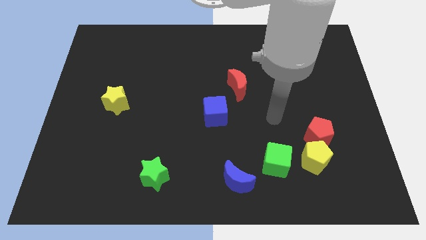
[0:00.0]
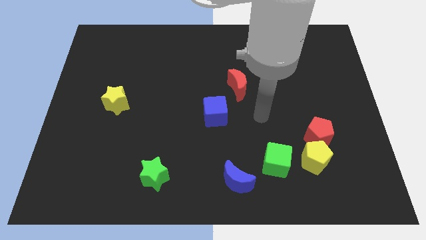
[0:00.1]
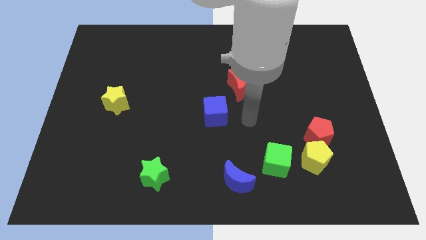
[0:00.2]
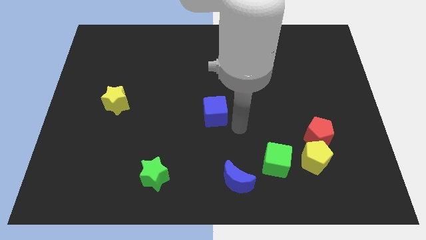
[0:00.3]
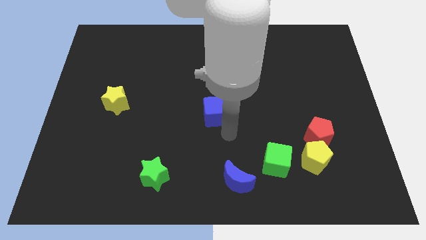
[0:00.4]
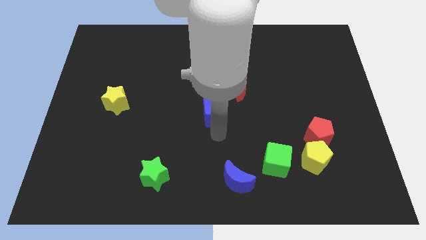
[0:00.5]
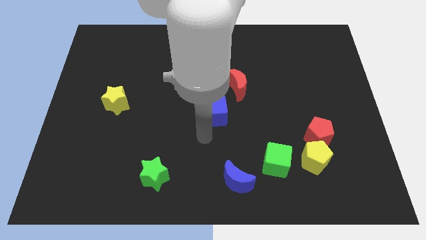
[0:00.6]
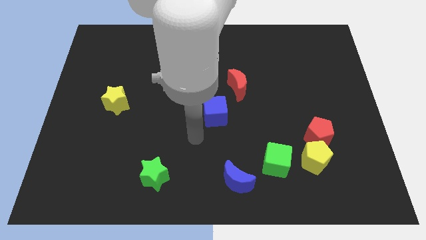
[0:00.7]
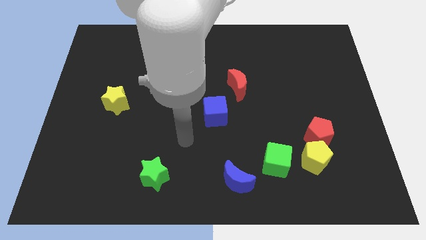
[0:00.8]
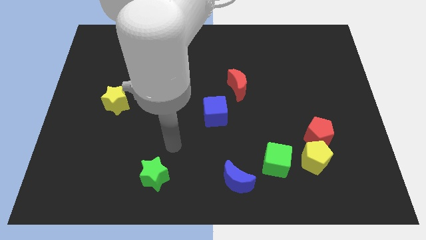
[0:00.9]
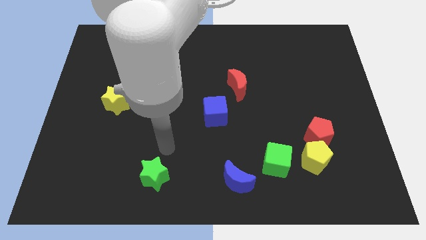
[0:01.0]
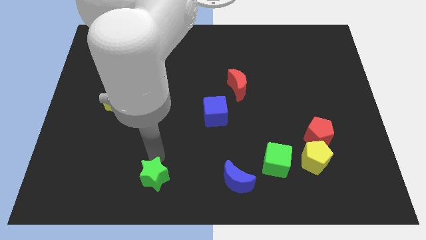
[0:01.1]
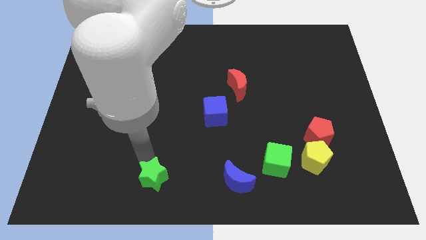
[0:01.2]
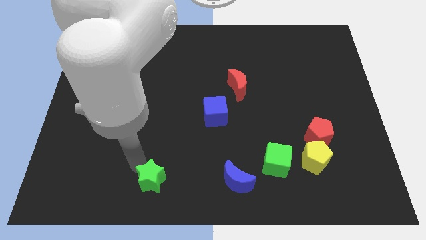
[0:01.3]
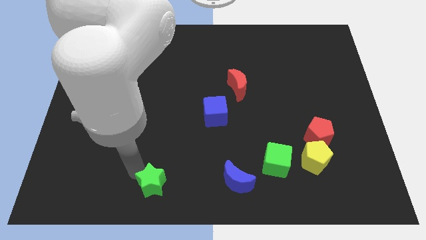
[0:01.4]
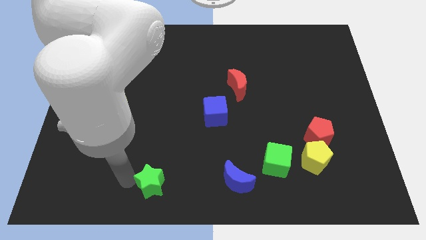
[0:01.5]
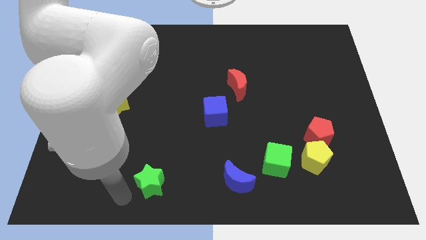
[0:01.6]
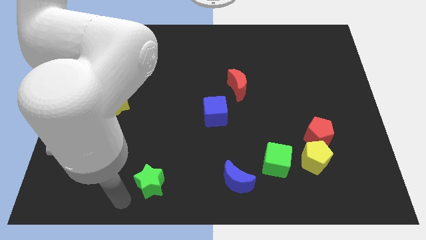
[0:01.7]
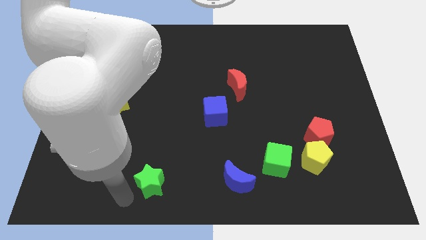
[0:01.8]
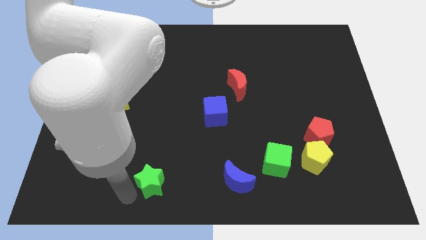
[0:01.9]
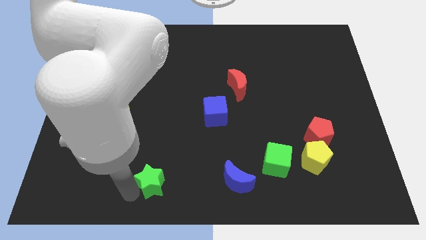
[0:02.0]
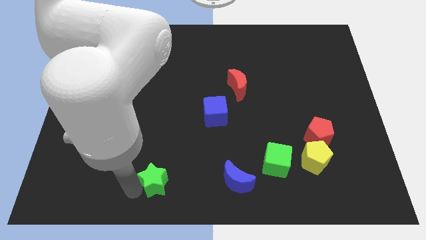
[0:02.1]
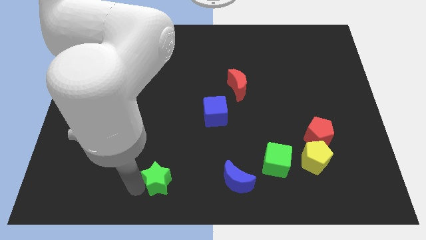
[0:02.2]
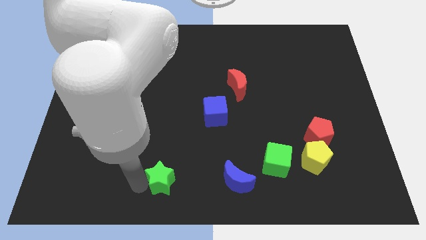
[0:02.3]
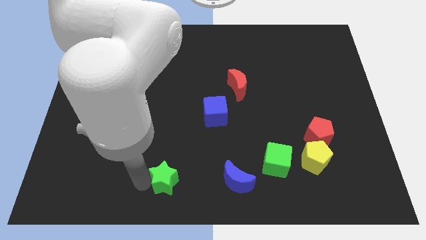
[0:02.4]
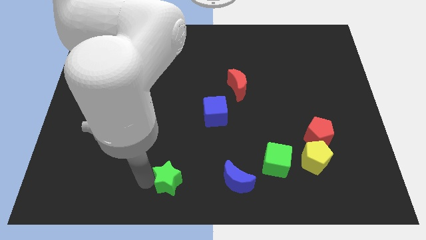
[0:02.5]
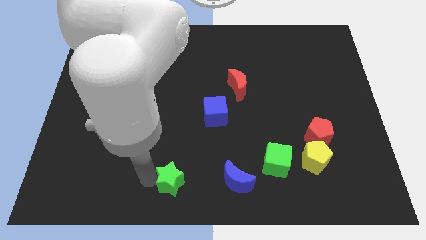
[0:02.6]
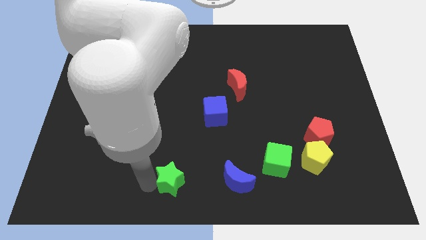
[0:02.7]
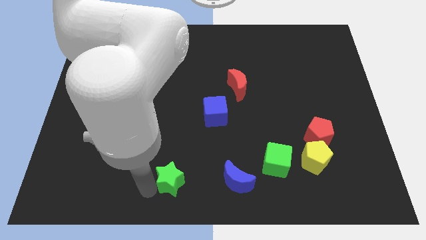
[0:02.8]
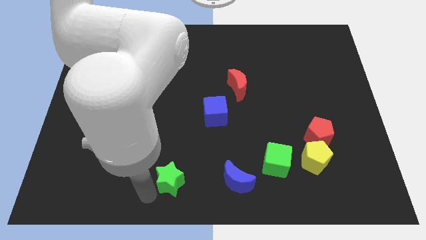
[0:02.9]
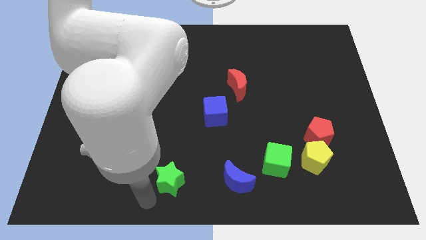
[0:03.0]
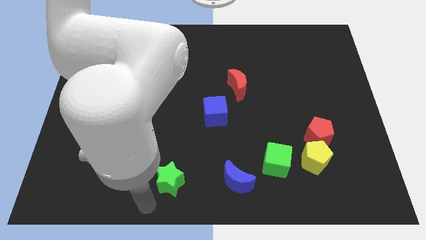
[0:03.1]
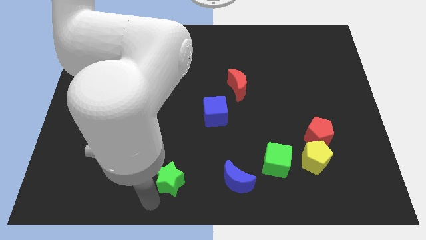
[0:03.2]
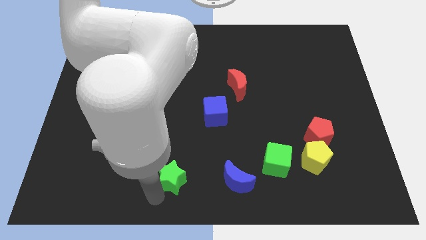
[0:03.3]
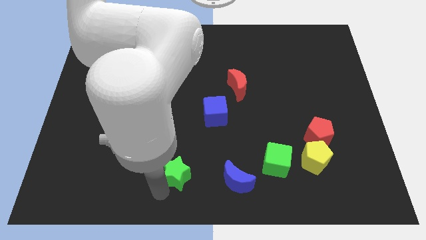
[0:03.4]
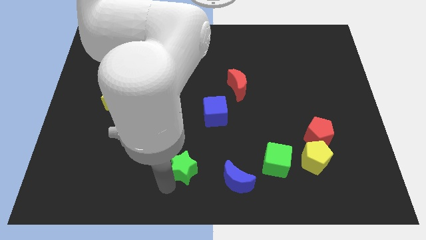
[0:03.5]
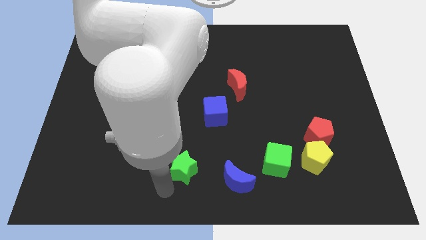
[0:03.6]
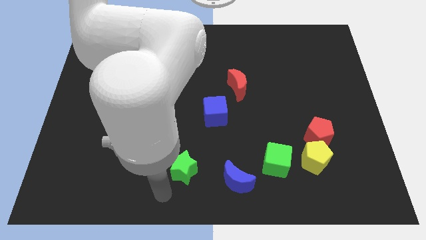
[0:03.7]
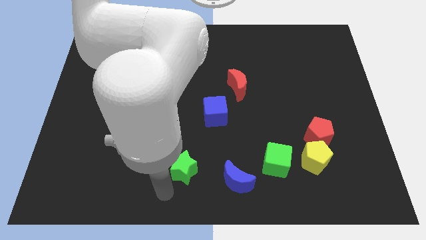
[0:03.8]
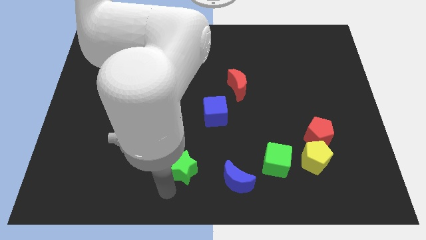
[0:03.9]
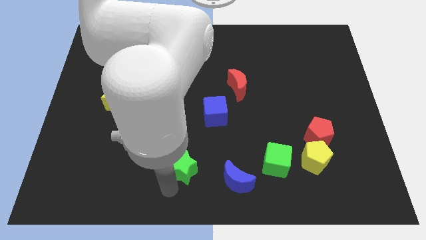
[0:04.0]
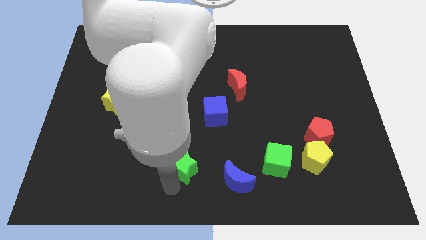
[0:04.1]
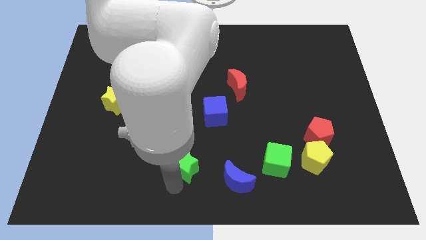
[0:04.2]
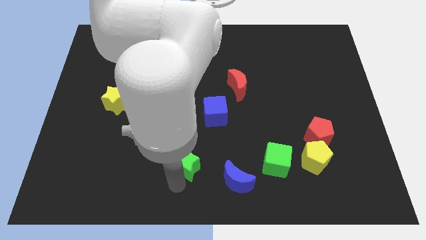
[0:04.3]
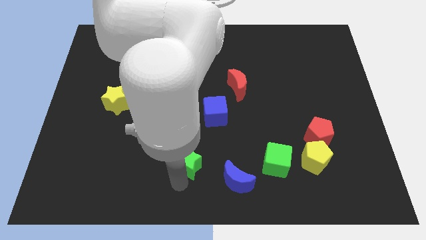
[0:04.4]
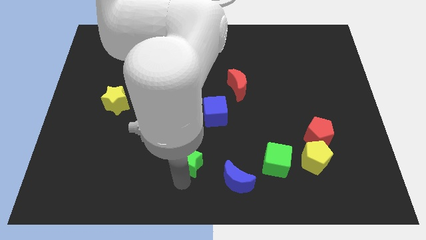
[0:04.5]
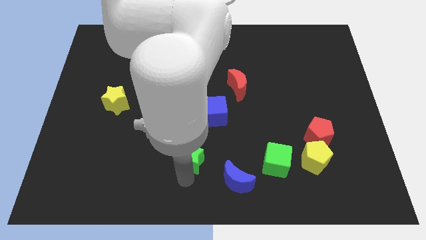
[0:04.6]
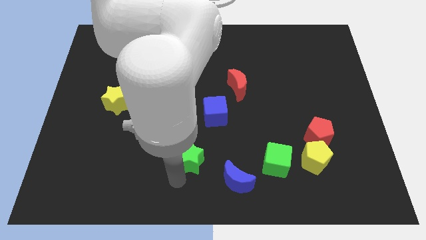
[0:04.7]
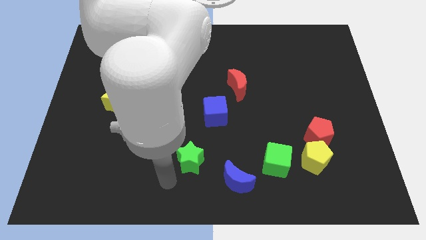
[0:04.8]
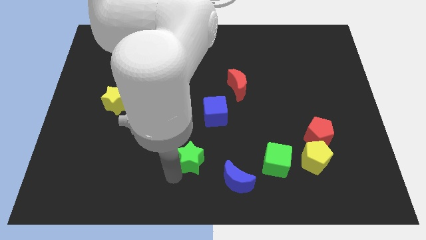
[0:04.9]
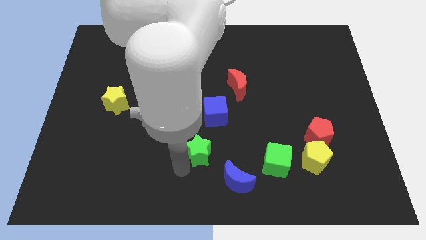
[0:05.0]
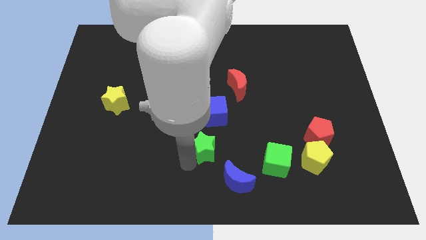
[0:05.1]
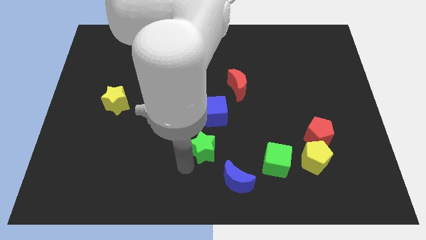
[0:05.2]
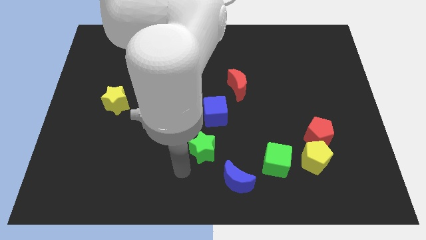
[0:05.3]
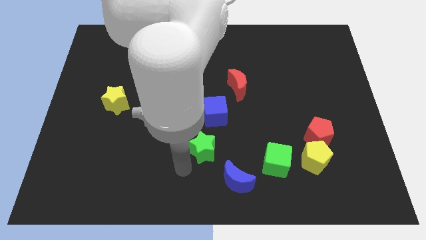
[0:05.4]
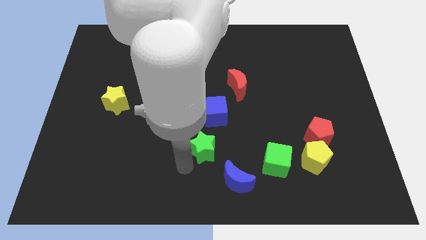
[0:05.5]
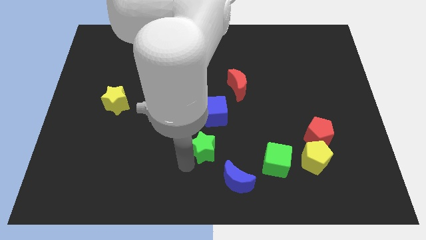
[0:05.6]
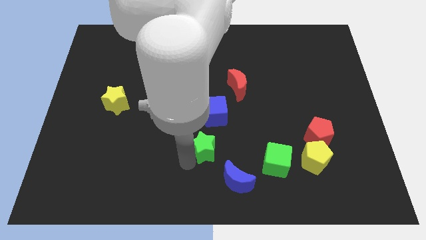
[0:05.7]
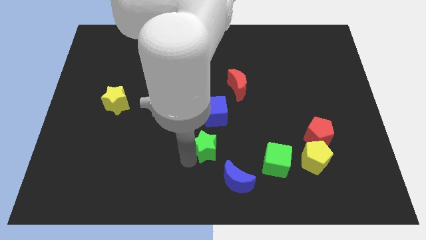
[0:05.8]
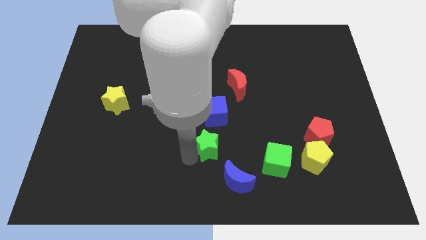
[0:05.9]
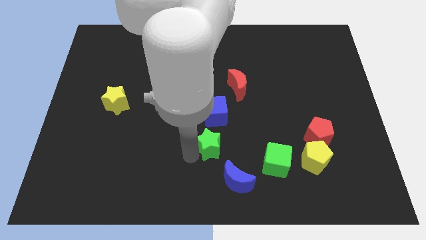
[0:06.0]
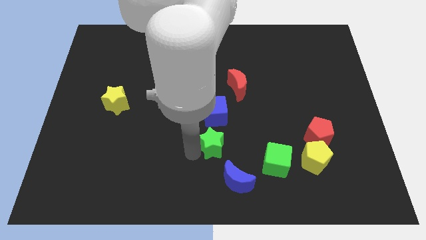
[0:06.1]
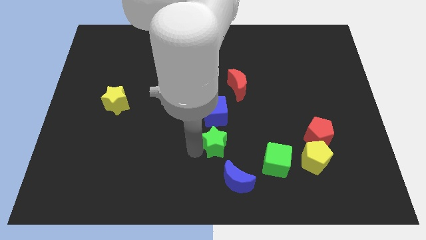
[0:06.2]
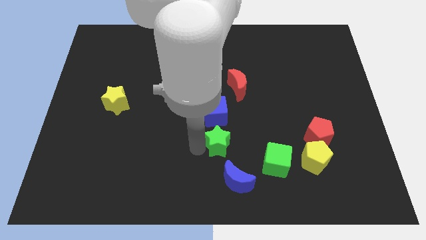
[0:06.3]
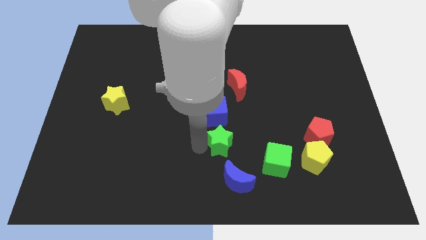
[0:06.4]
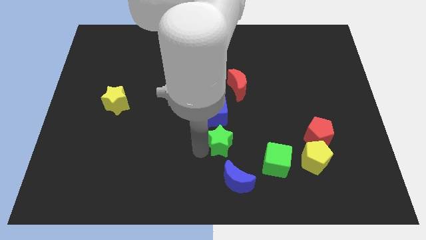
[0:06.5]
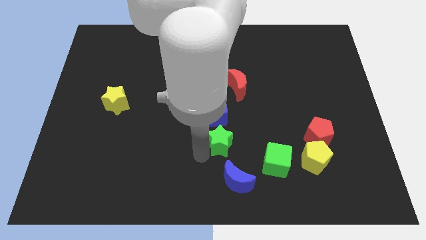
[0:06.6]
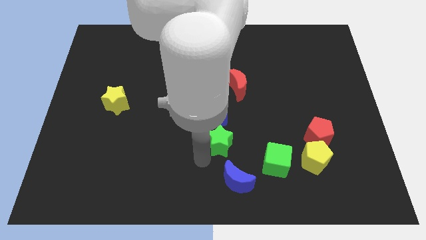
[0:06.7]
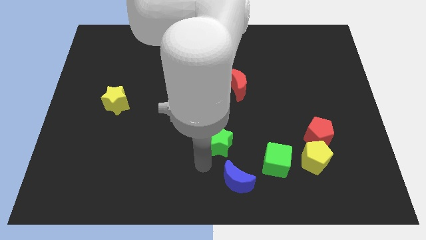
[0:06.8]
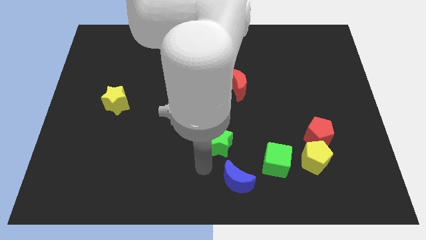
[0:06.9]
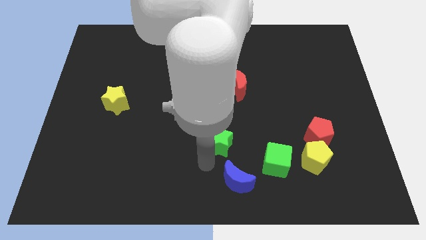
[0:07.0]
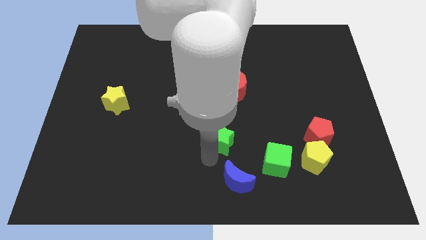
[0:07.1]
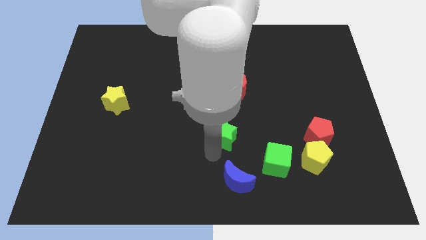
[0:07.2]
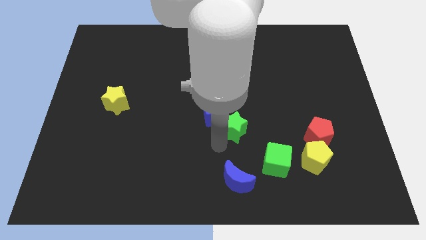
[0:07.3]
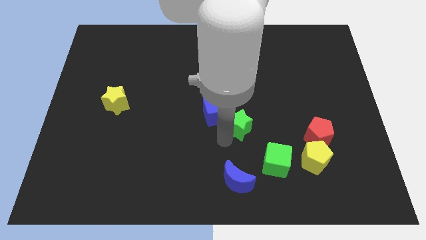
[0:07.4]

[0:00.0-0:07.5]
move the green star up and then to the right

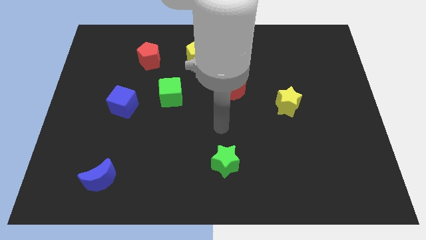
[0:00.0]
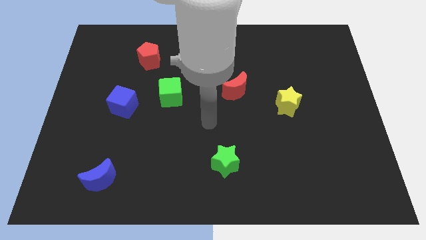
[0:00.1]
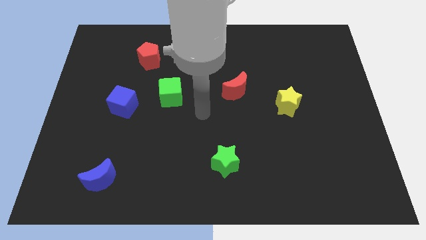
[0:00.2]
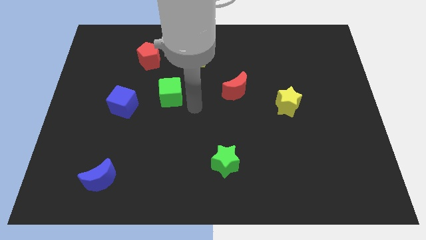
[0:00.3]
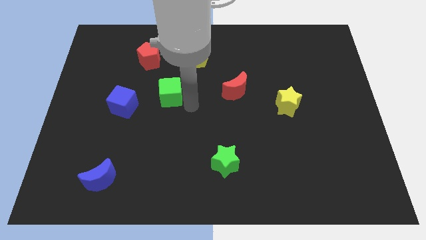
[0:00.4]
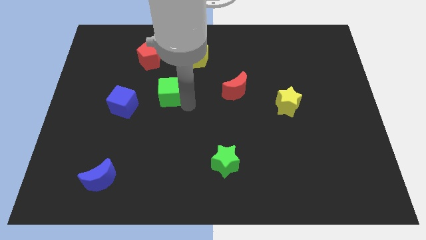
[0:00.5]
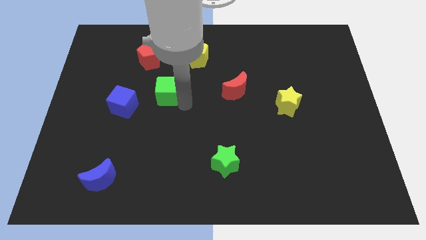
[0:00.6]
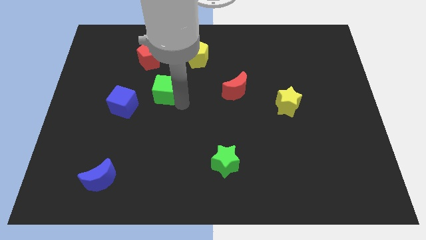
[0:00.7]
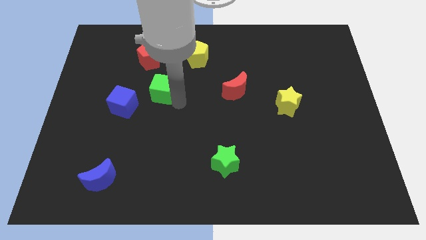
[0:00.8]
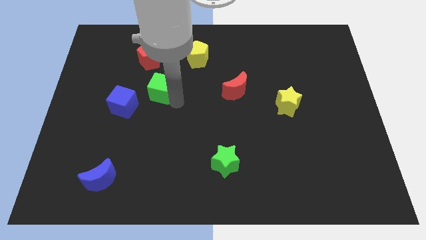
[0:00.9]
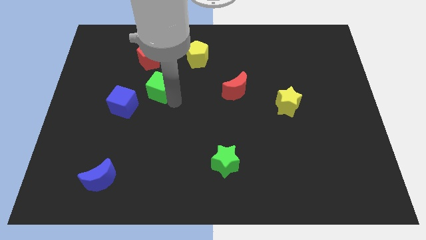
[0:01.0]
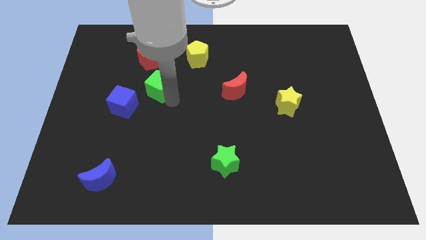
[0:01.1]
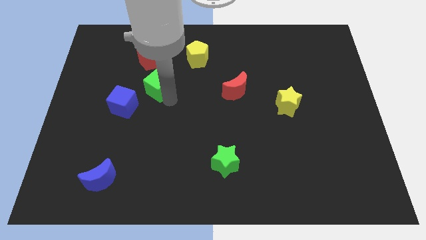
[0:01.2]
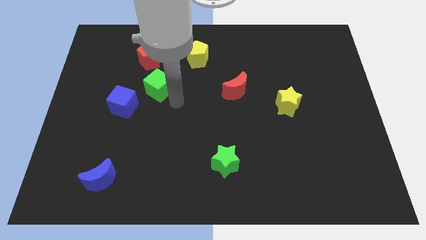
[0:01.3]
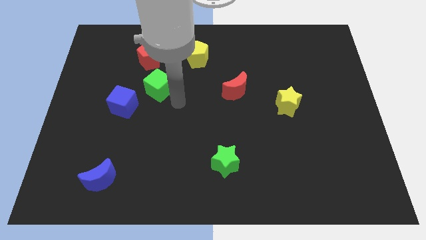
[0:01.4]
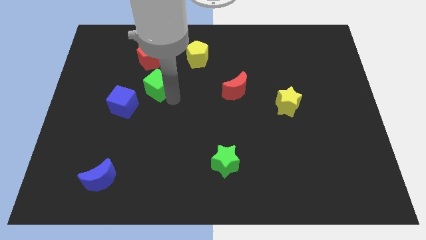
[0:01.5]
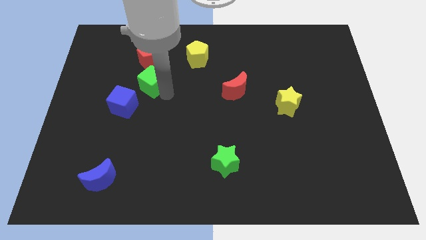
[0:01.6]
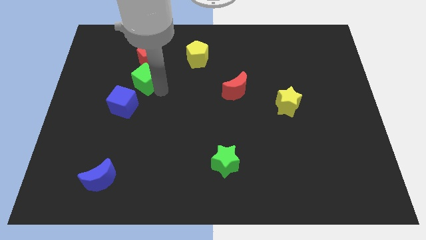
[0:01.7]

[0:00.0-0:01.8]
move the green cube somewhat upwards and then to the left
